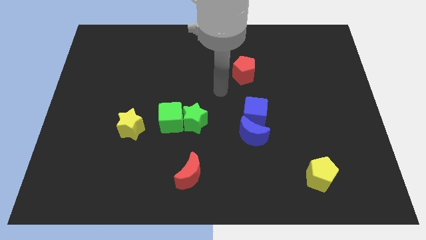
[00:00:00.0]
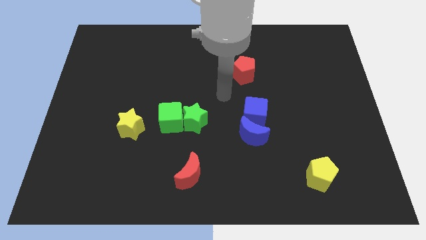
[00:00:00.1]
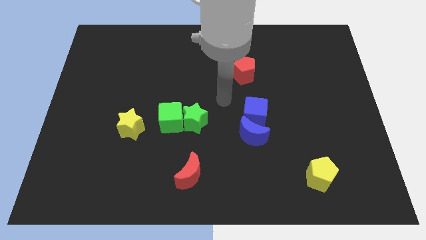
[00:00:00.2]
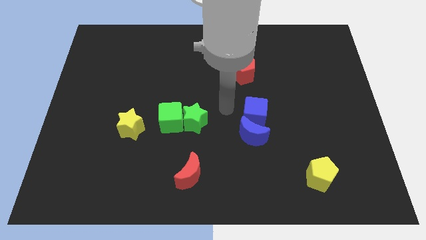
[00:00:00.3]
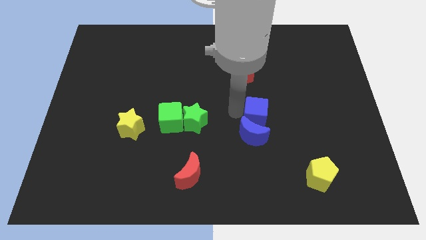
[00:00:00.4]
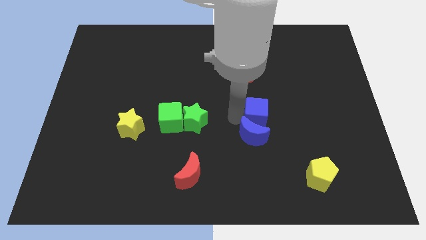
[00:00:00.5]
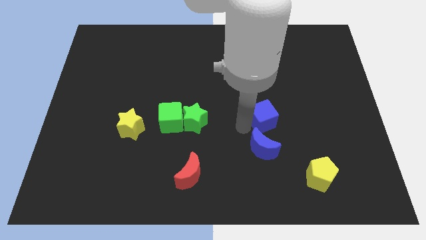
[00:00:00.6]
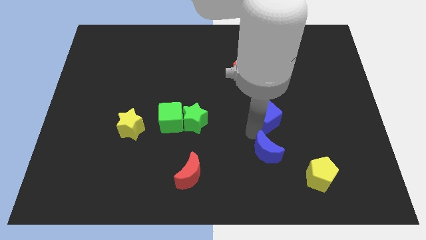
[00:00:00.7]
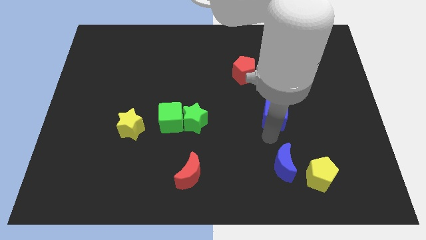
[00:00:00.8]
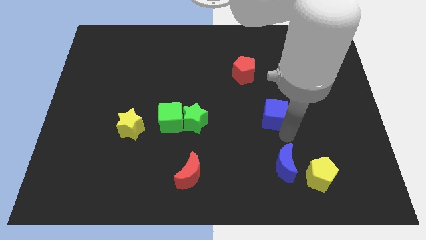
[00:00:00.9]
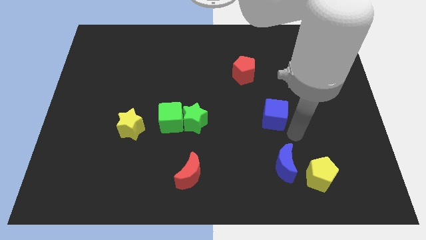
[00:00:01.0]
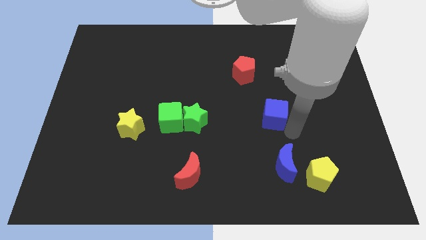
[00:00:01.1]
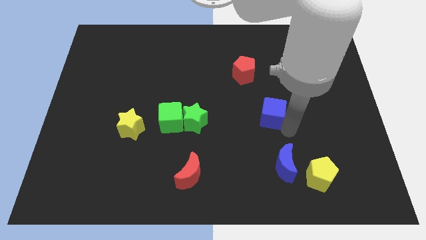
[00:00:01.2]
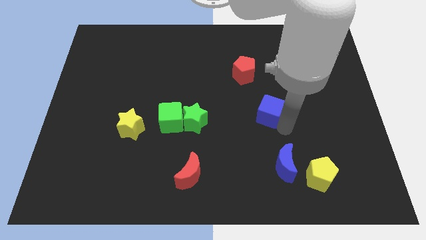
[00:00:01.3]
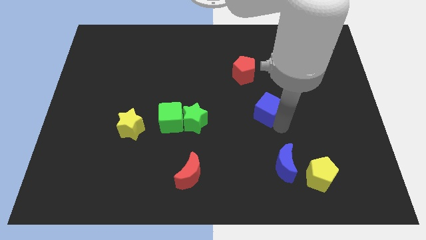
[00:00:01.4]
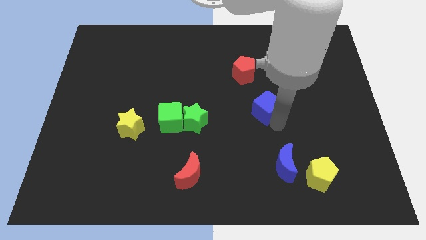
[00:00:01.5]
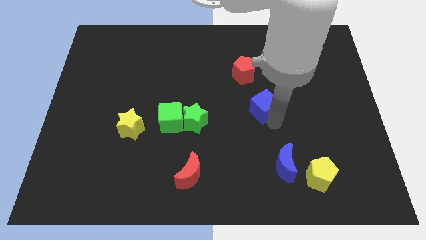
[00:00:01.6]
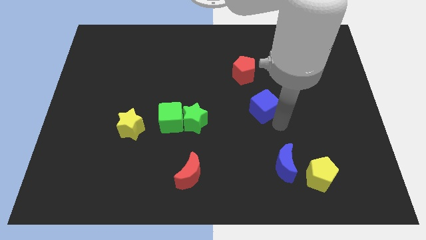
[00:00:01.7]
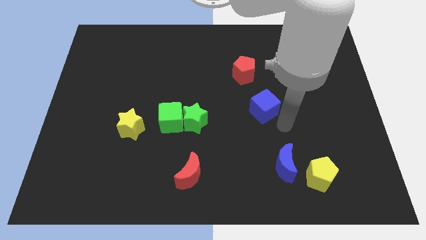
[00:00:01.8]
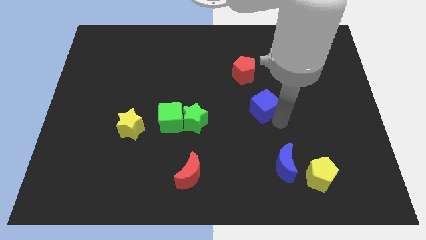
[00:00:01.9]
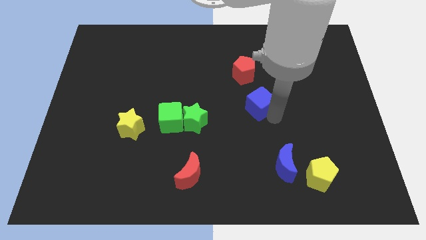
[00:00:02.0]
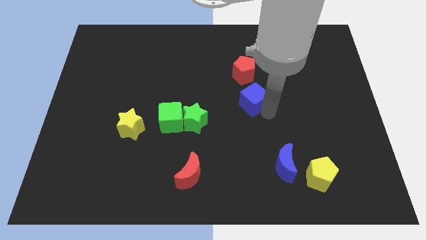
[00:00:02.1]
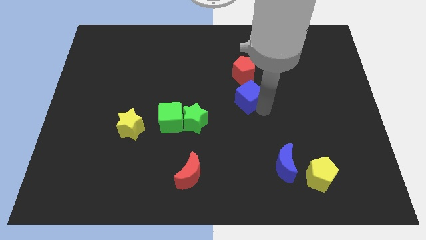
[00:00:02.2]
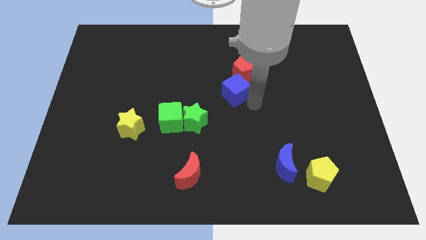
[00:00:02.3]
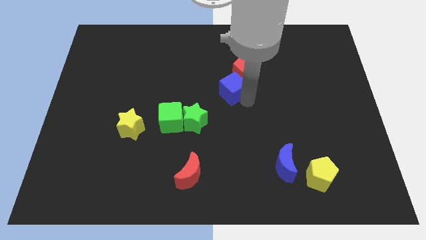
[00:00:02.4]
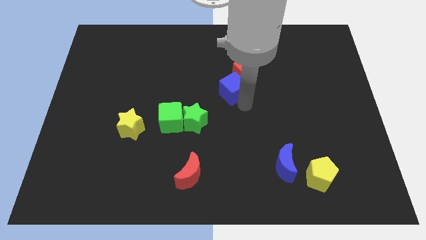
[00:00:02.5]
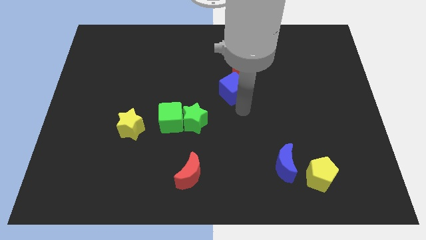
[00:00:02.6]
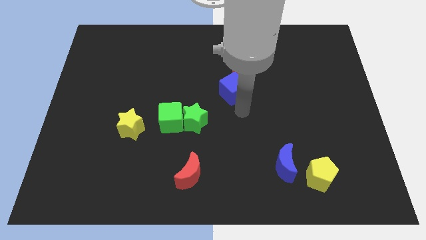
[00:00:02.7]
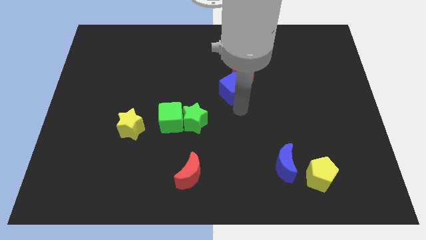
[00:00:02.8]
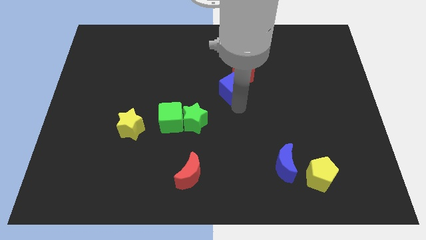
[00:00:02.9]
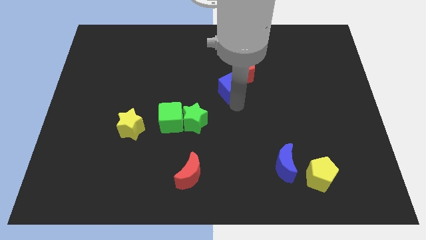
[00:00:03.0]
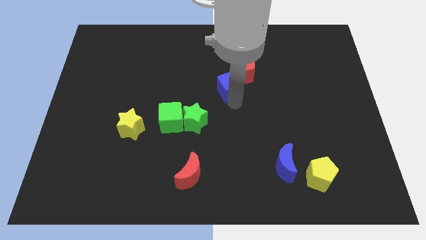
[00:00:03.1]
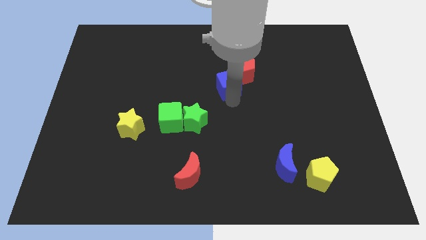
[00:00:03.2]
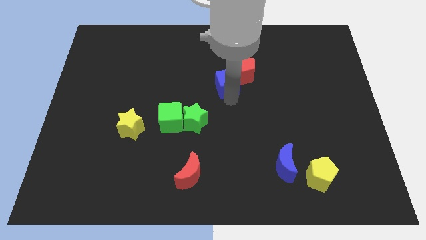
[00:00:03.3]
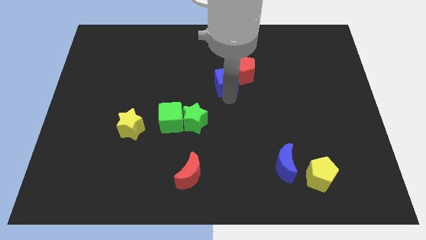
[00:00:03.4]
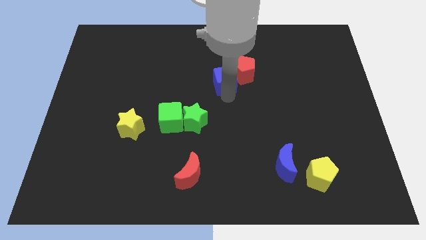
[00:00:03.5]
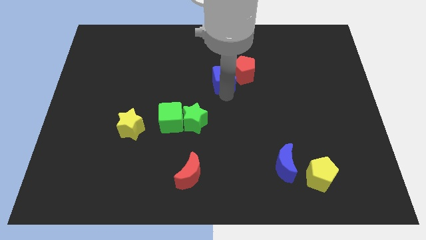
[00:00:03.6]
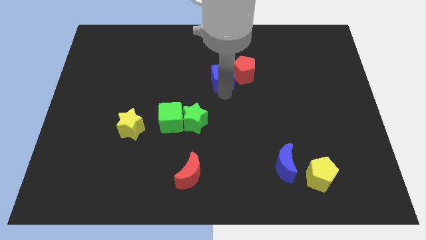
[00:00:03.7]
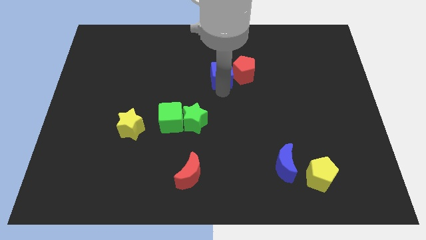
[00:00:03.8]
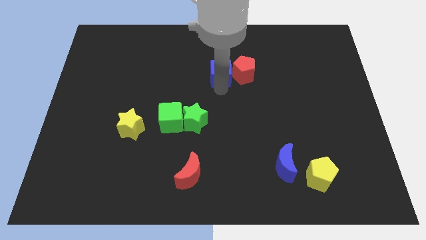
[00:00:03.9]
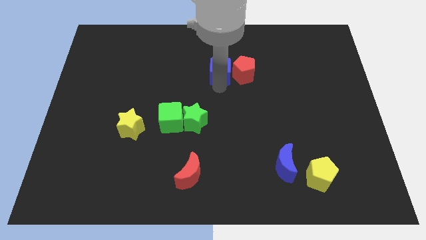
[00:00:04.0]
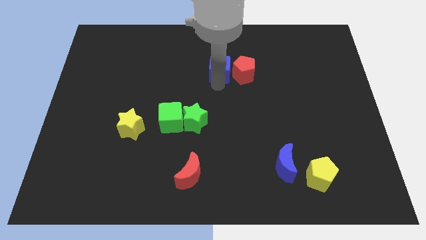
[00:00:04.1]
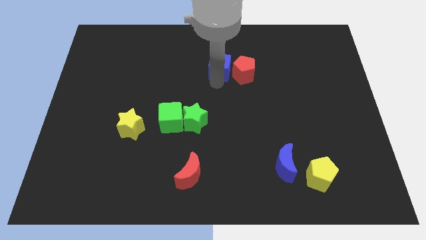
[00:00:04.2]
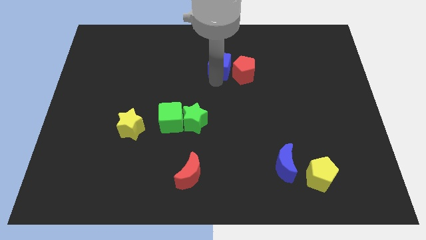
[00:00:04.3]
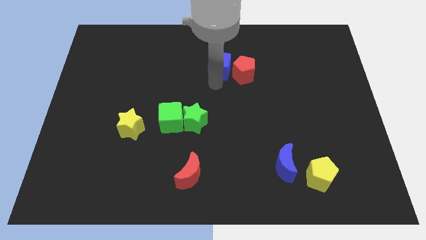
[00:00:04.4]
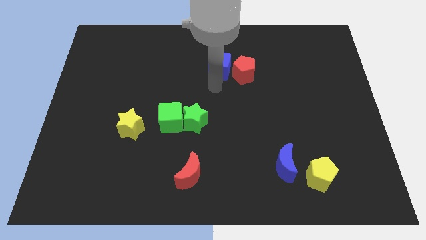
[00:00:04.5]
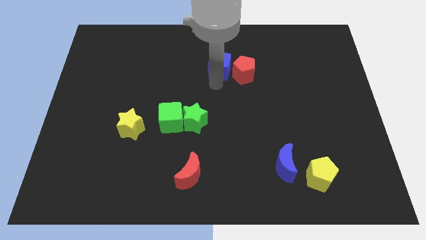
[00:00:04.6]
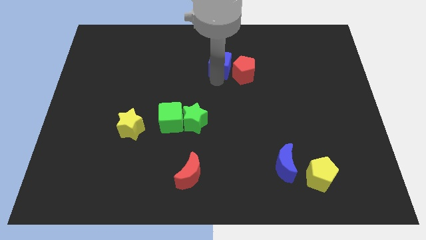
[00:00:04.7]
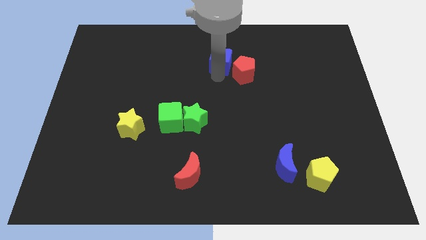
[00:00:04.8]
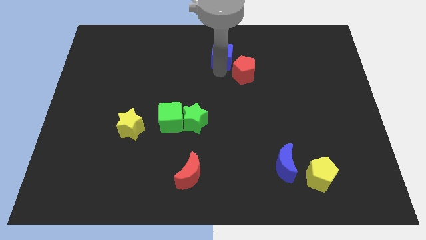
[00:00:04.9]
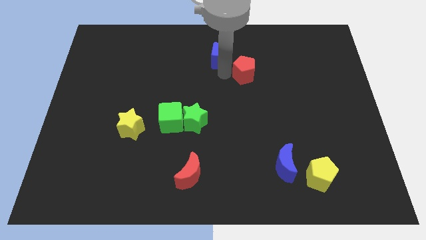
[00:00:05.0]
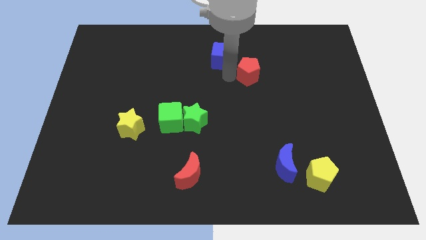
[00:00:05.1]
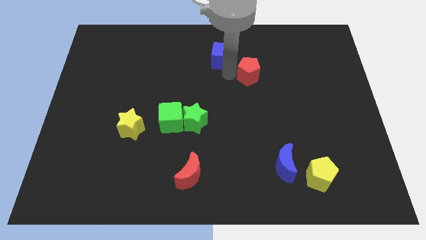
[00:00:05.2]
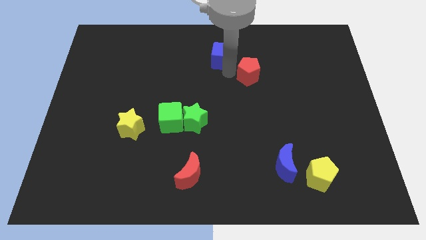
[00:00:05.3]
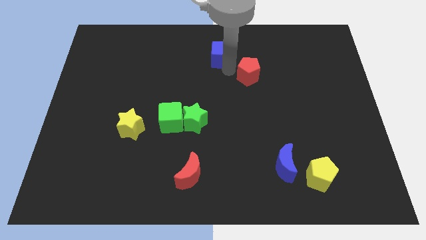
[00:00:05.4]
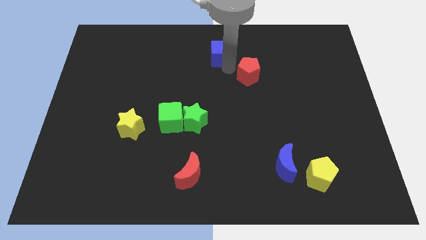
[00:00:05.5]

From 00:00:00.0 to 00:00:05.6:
slide the blue cube to the top

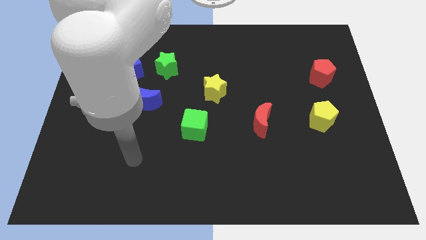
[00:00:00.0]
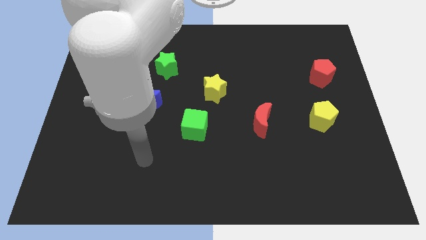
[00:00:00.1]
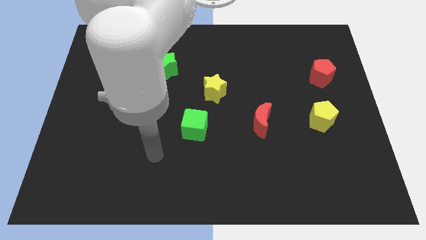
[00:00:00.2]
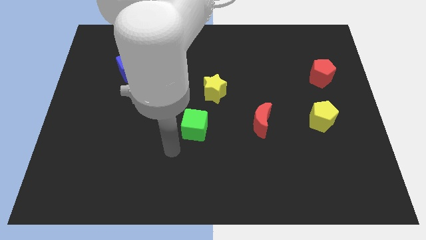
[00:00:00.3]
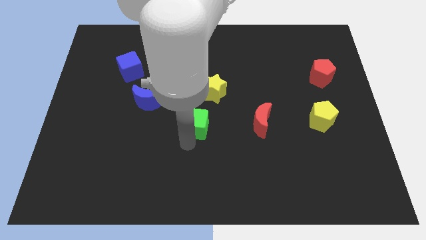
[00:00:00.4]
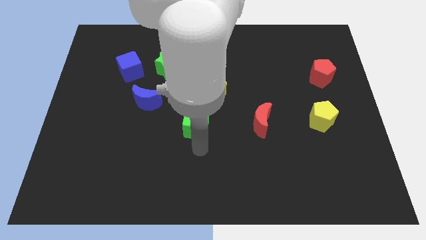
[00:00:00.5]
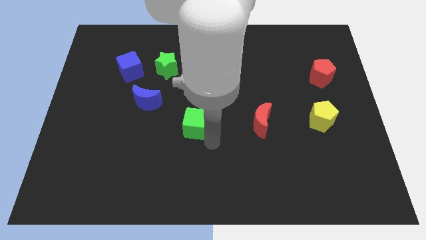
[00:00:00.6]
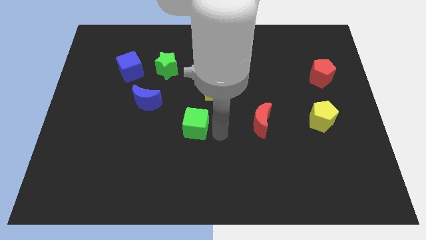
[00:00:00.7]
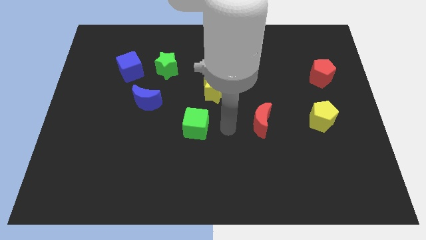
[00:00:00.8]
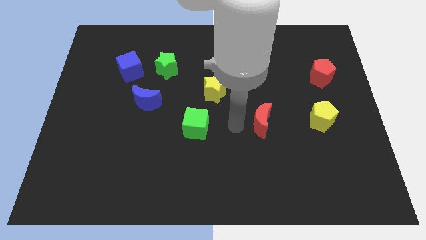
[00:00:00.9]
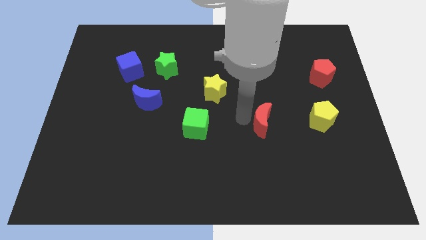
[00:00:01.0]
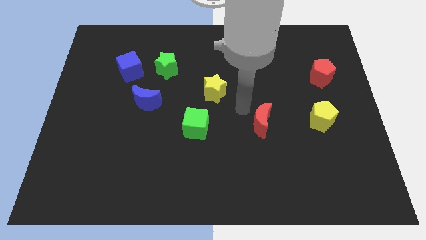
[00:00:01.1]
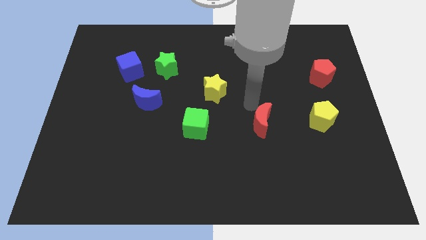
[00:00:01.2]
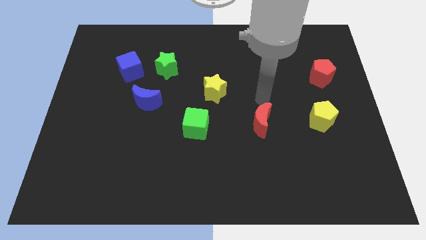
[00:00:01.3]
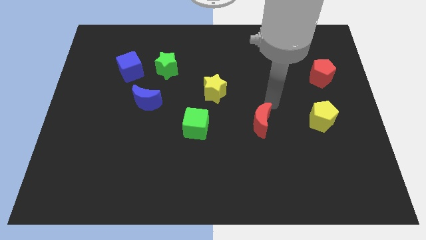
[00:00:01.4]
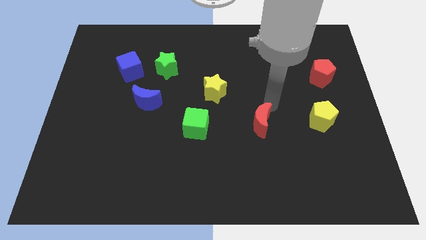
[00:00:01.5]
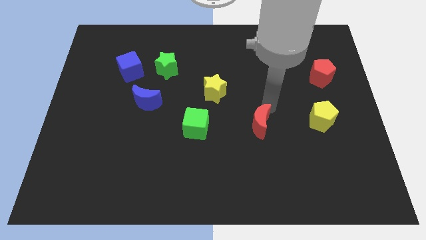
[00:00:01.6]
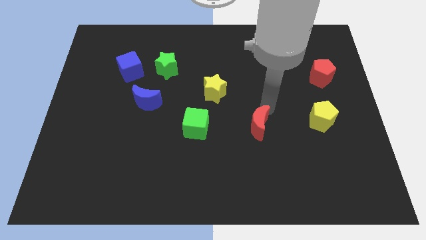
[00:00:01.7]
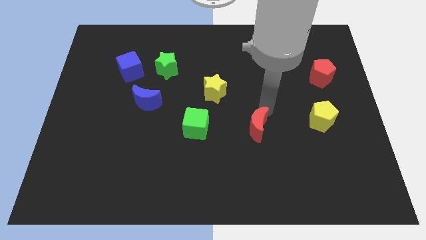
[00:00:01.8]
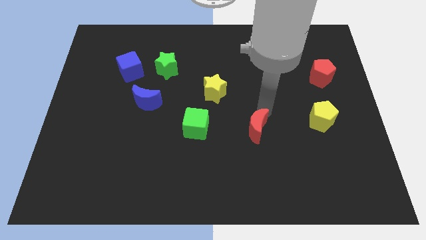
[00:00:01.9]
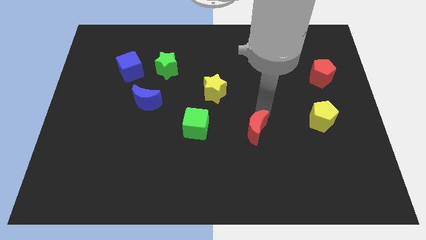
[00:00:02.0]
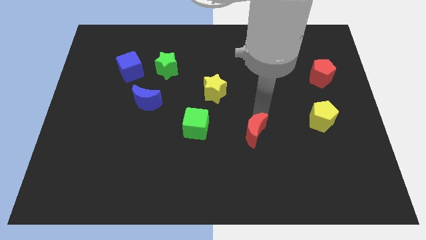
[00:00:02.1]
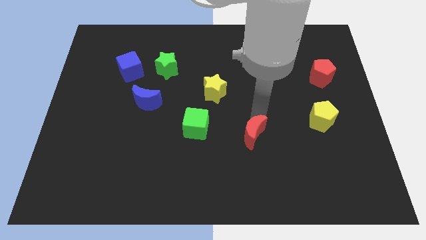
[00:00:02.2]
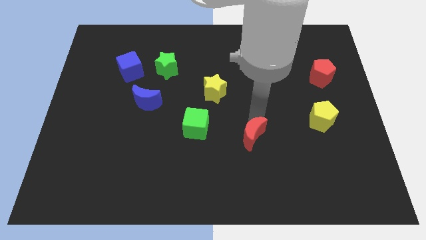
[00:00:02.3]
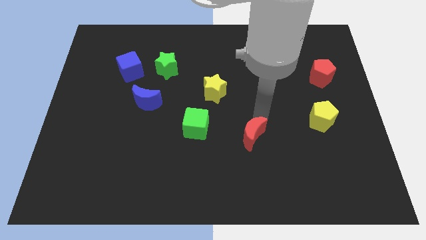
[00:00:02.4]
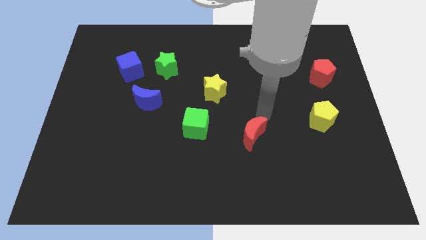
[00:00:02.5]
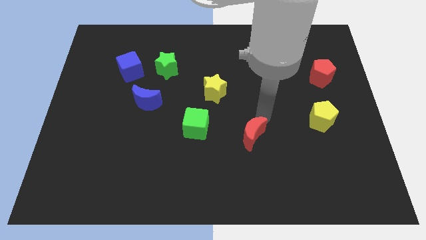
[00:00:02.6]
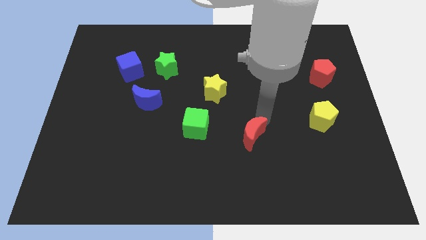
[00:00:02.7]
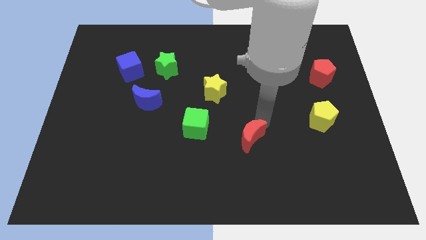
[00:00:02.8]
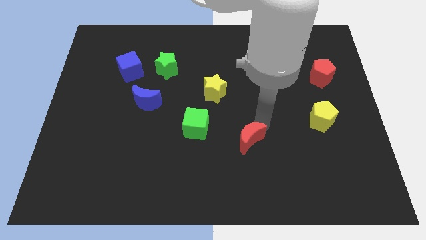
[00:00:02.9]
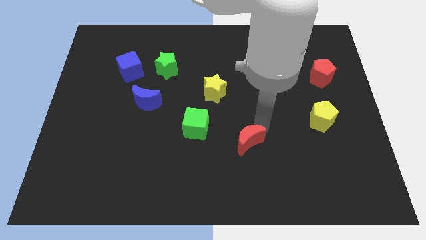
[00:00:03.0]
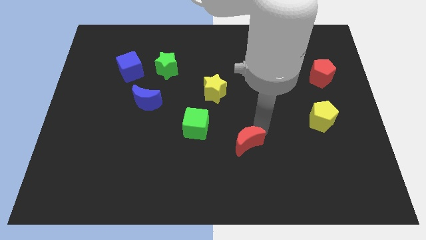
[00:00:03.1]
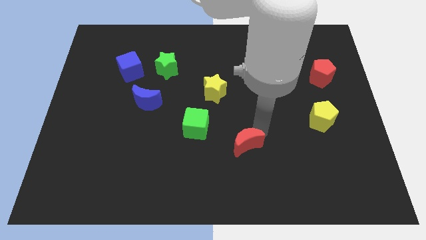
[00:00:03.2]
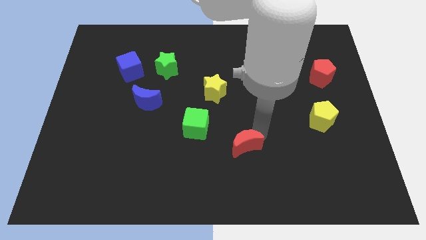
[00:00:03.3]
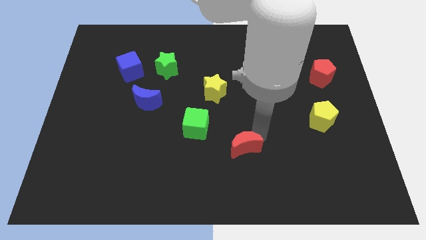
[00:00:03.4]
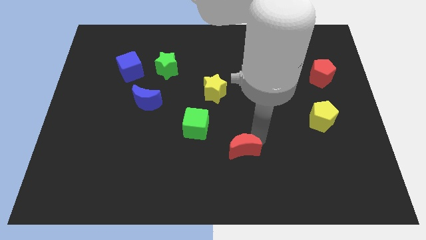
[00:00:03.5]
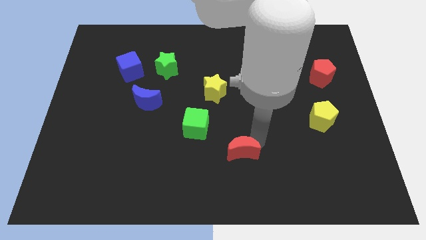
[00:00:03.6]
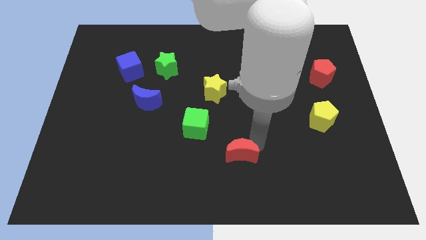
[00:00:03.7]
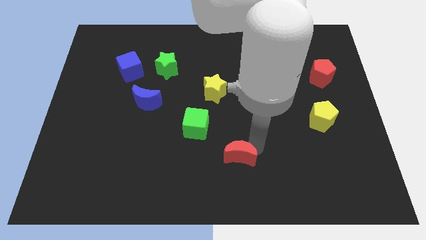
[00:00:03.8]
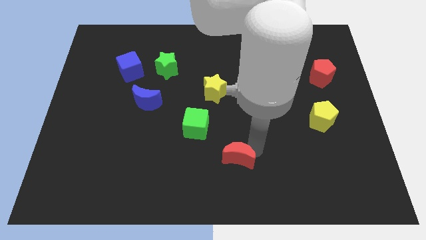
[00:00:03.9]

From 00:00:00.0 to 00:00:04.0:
move the red moon to the bottom
